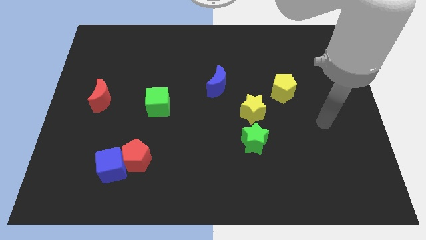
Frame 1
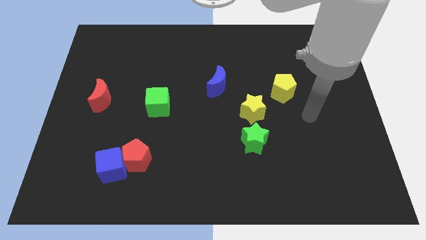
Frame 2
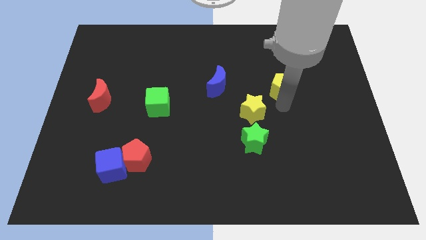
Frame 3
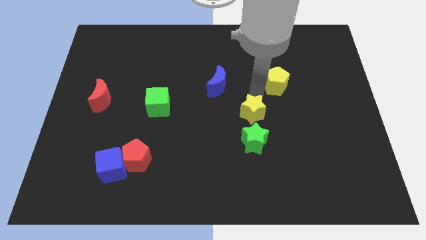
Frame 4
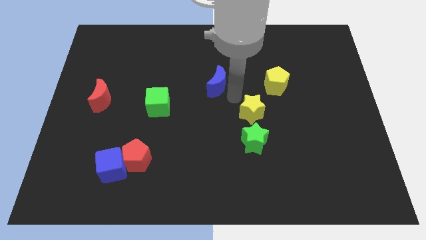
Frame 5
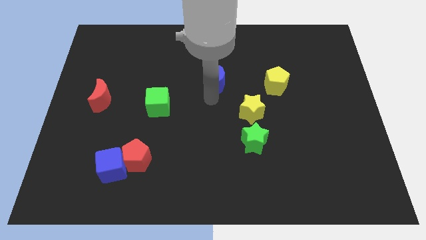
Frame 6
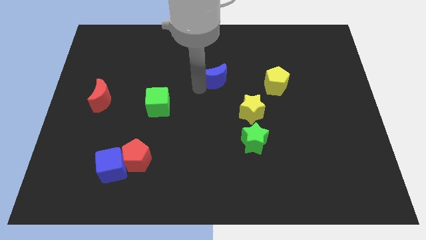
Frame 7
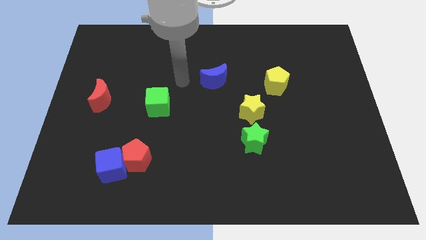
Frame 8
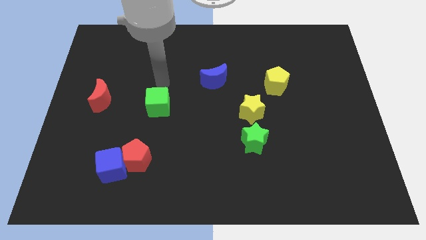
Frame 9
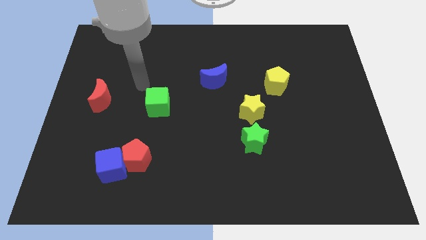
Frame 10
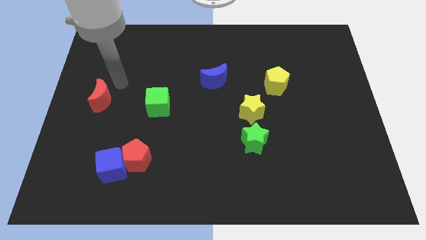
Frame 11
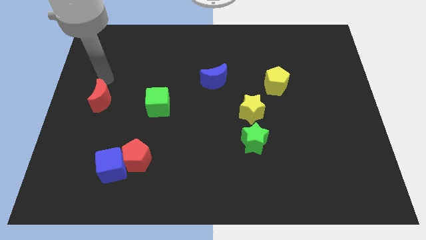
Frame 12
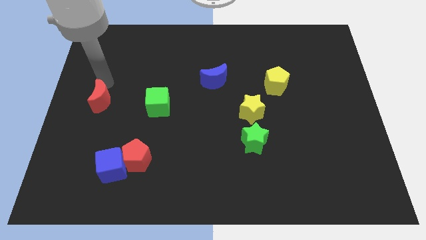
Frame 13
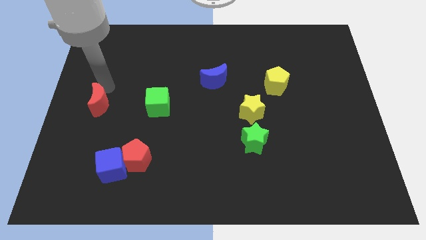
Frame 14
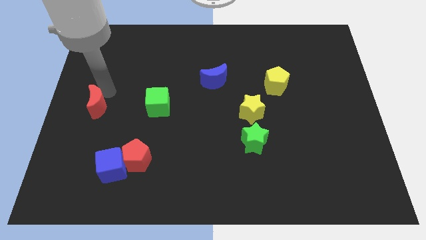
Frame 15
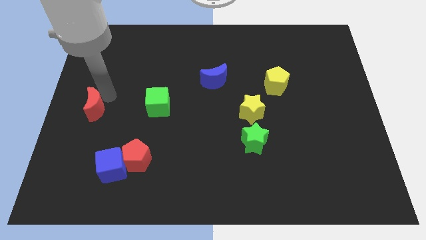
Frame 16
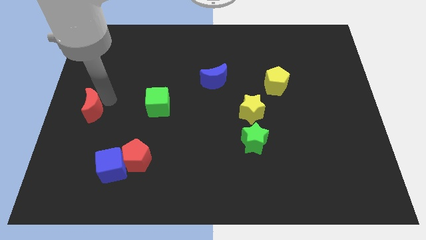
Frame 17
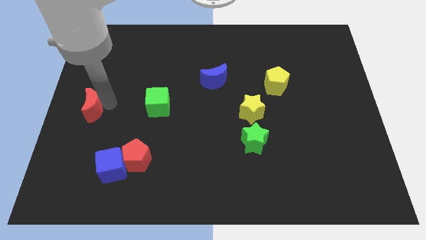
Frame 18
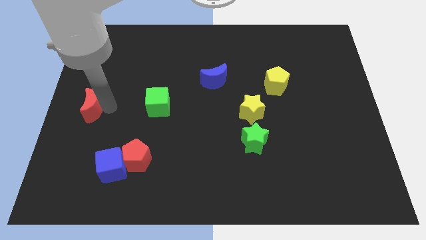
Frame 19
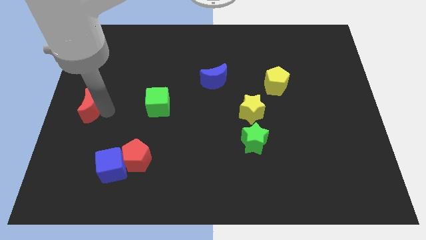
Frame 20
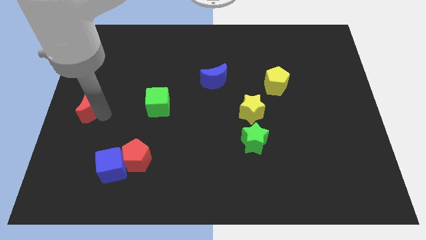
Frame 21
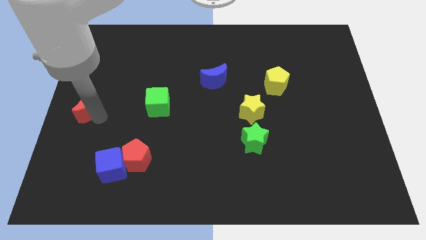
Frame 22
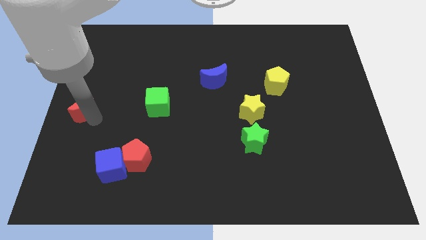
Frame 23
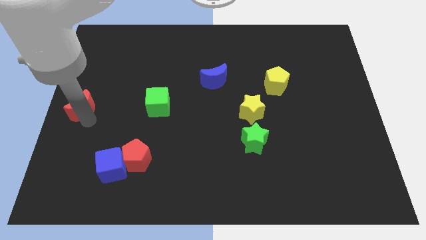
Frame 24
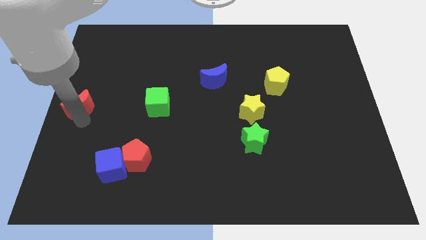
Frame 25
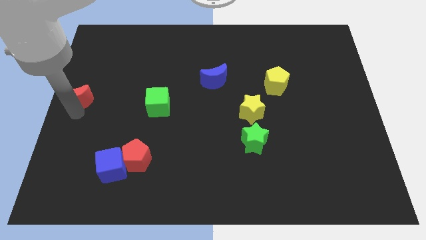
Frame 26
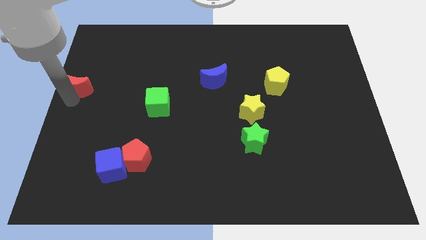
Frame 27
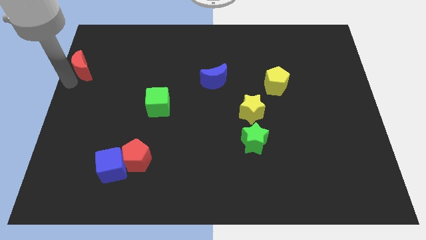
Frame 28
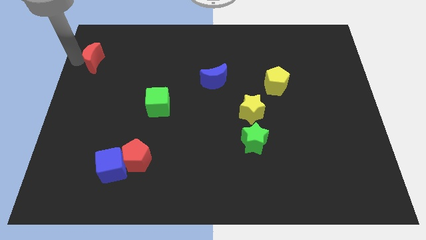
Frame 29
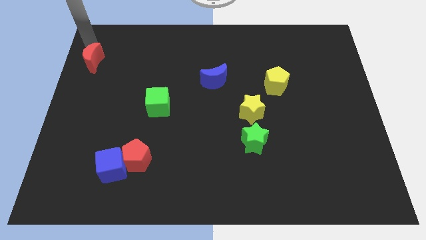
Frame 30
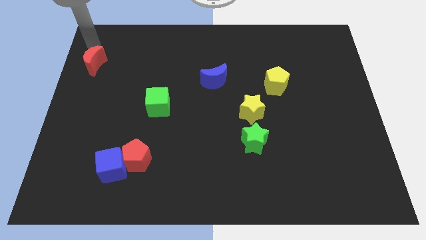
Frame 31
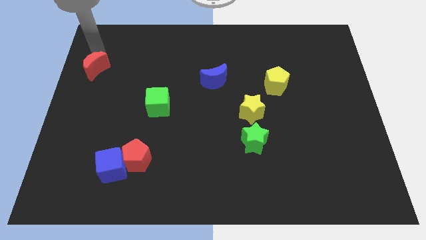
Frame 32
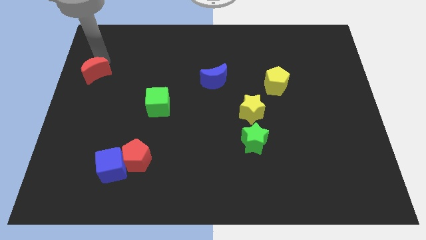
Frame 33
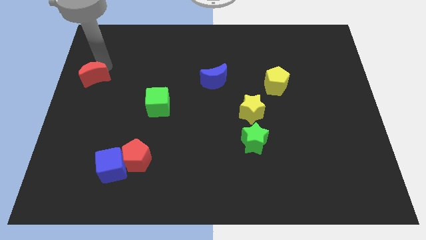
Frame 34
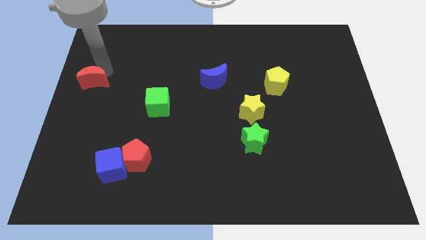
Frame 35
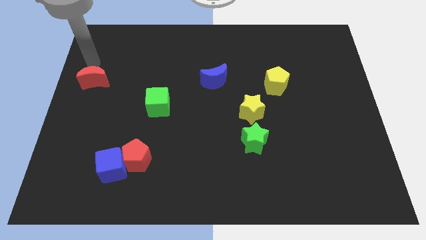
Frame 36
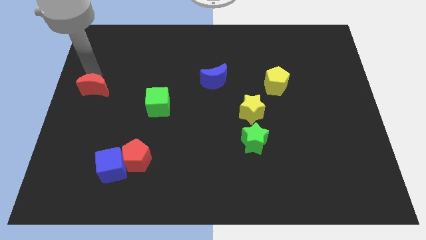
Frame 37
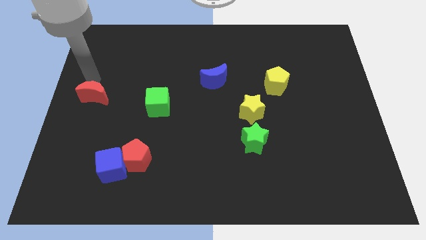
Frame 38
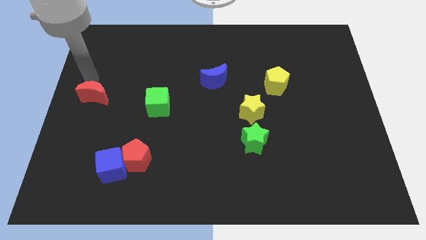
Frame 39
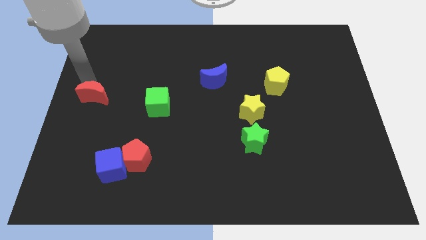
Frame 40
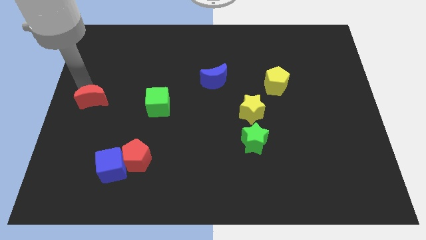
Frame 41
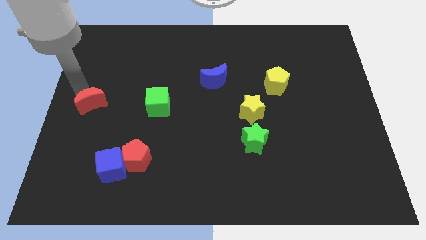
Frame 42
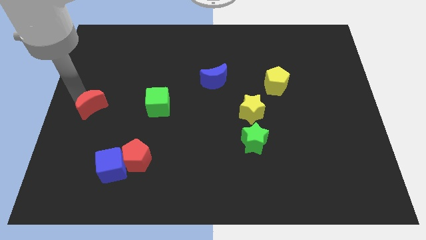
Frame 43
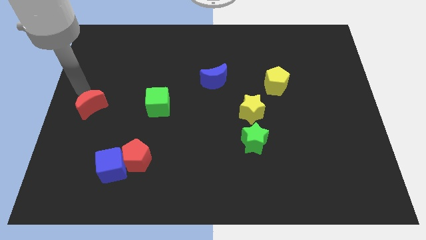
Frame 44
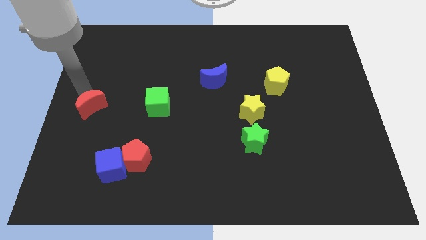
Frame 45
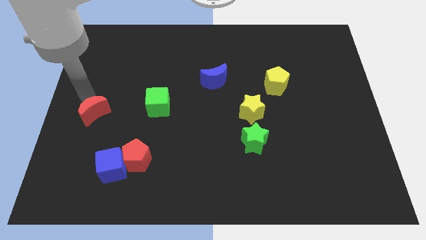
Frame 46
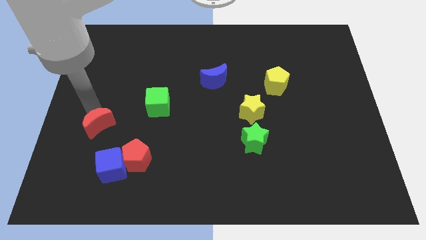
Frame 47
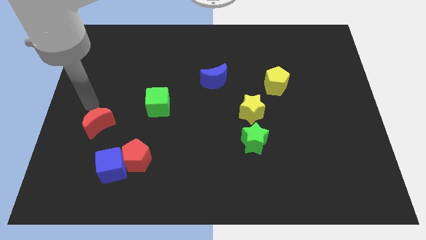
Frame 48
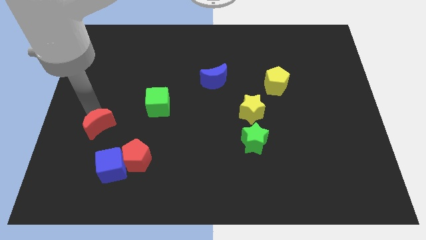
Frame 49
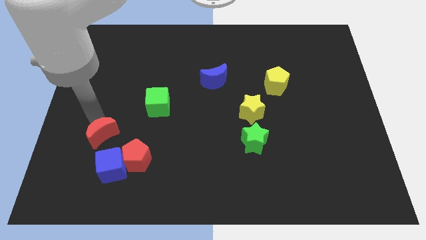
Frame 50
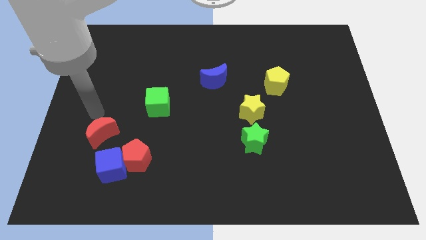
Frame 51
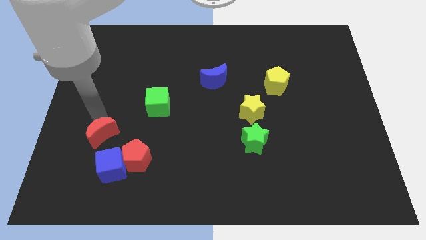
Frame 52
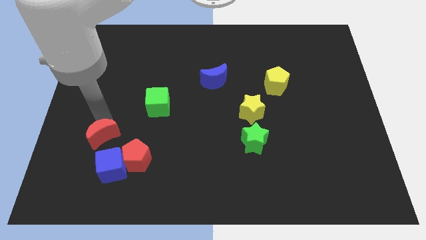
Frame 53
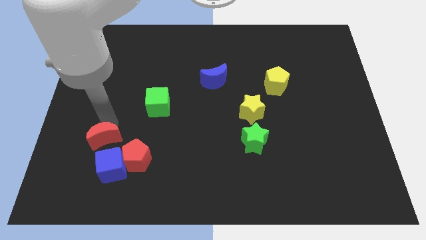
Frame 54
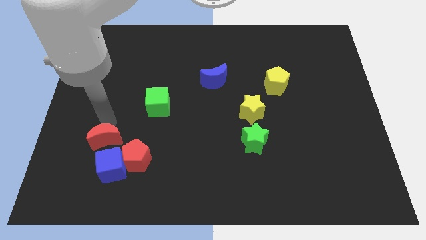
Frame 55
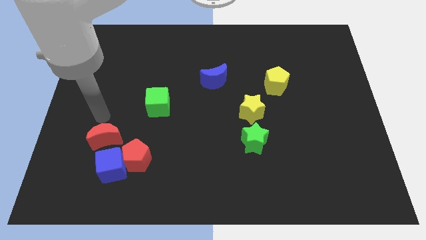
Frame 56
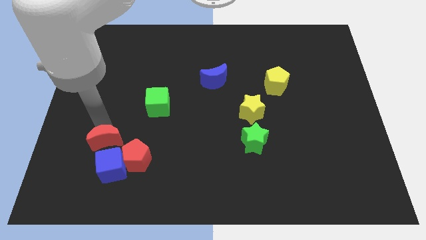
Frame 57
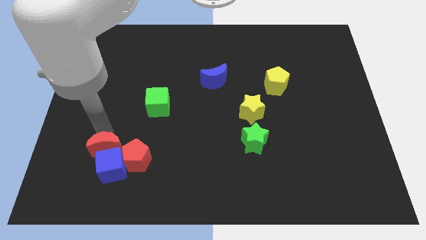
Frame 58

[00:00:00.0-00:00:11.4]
move the red moon to the blue cube

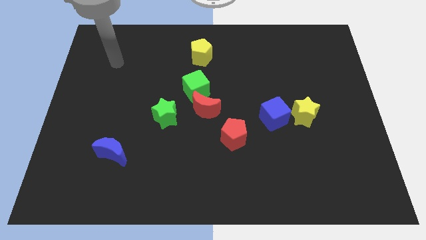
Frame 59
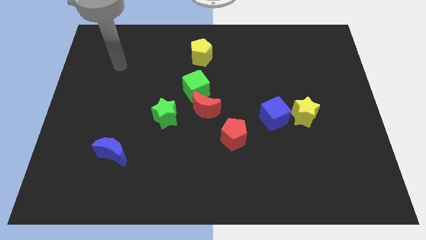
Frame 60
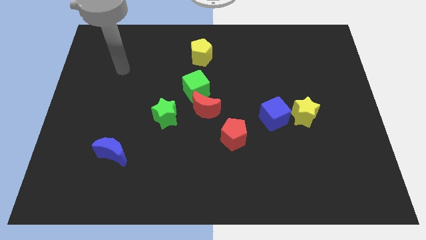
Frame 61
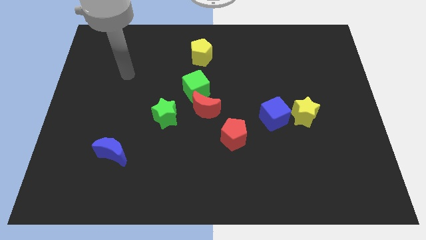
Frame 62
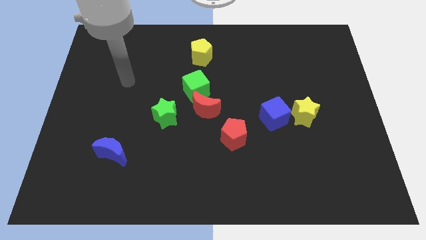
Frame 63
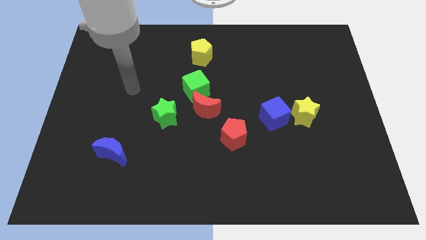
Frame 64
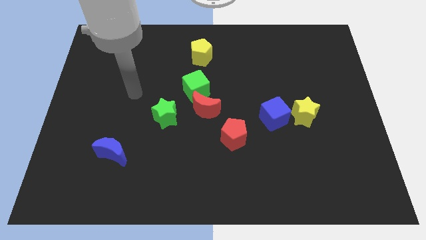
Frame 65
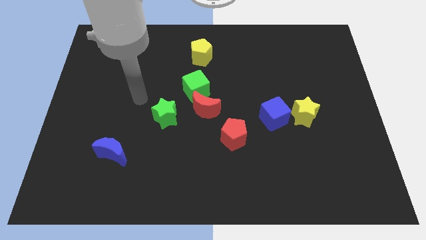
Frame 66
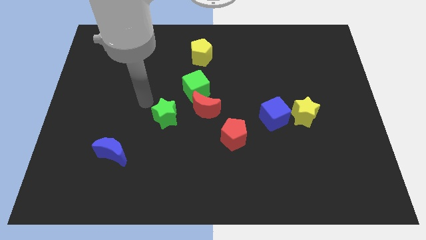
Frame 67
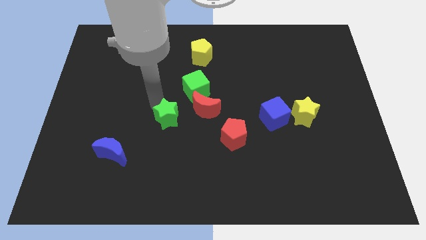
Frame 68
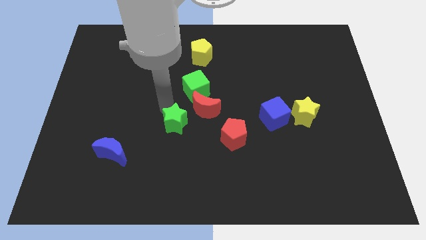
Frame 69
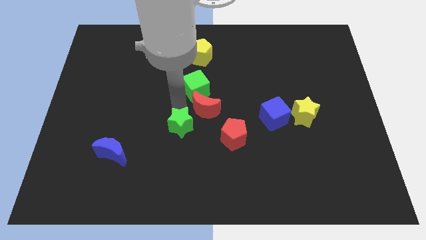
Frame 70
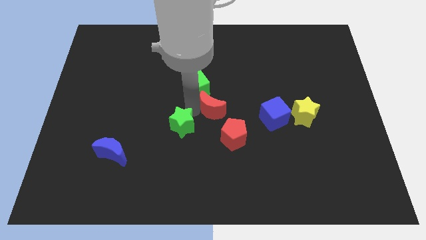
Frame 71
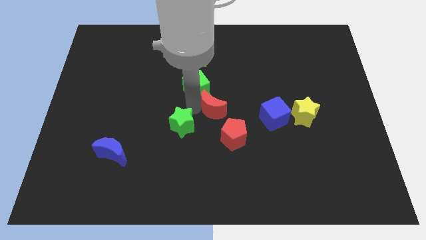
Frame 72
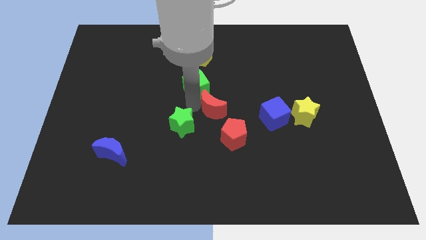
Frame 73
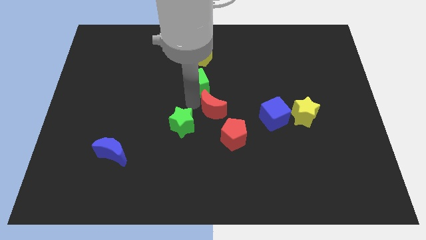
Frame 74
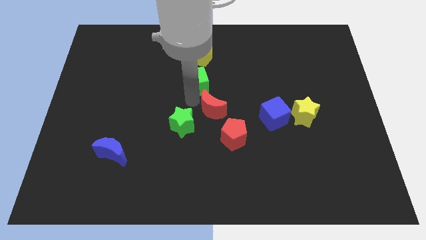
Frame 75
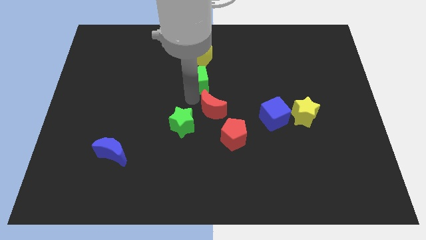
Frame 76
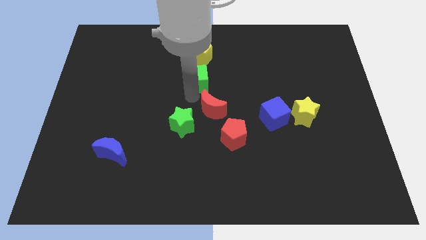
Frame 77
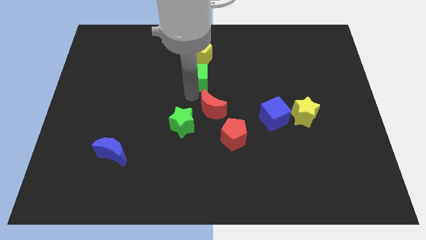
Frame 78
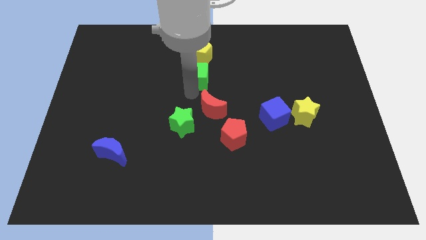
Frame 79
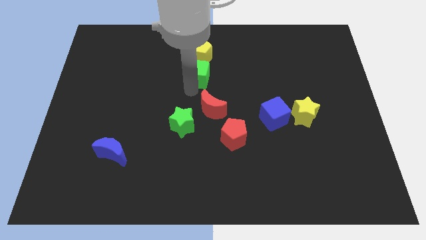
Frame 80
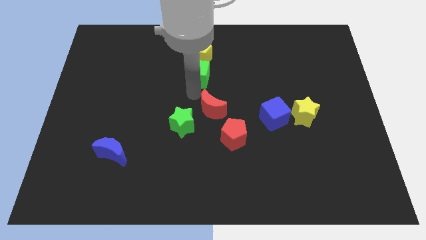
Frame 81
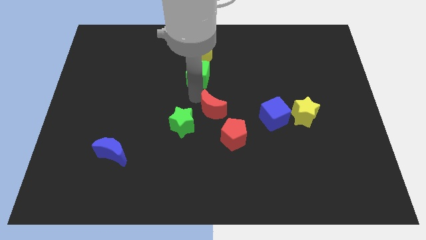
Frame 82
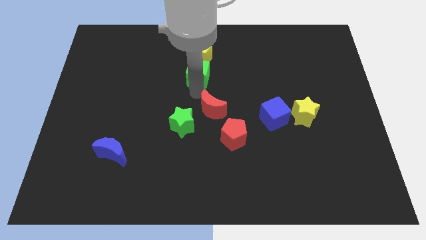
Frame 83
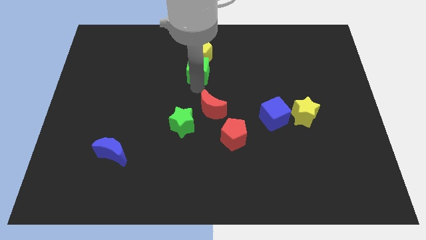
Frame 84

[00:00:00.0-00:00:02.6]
move the green cube close to the yellow pentagon
